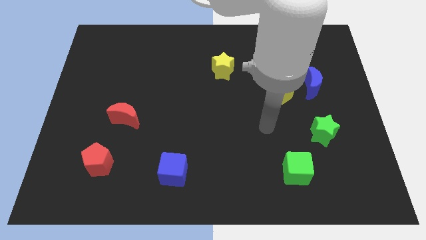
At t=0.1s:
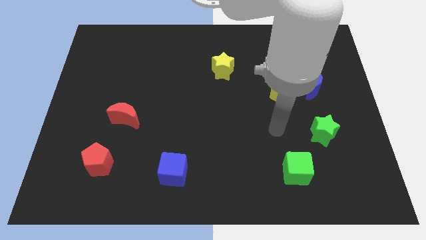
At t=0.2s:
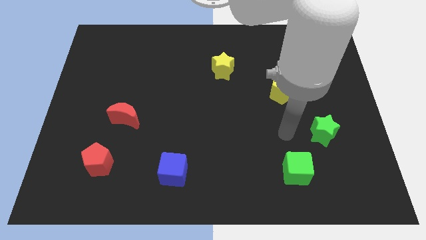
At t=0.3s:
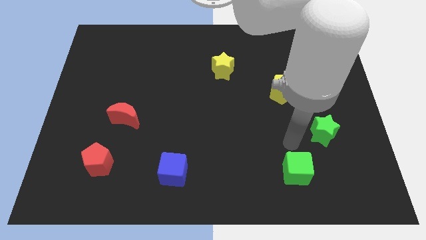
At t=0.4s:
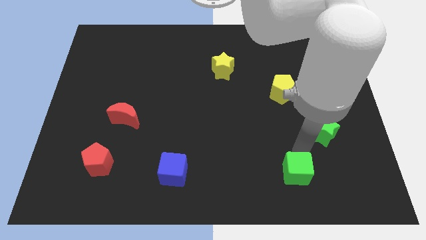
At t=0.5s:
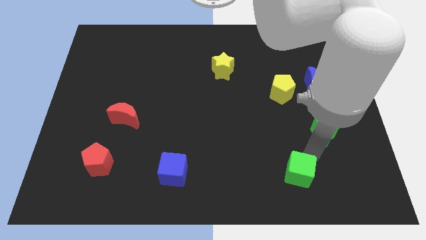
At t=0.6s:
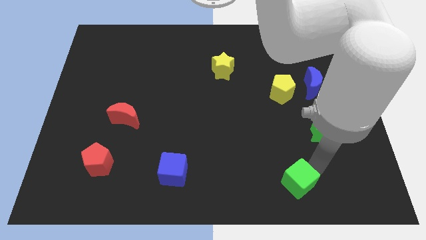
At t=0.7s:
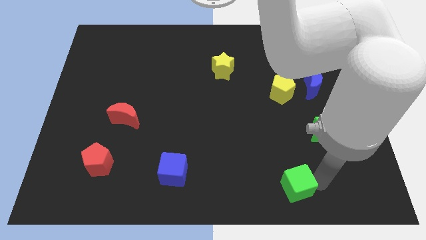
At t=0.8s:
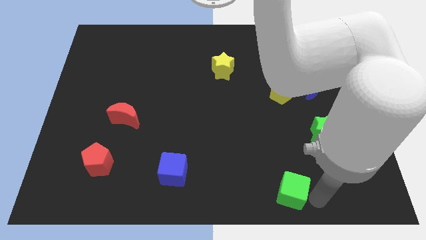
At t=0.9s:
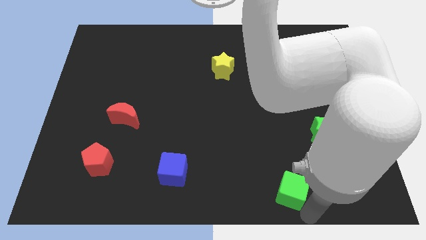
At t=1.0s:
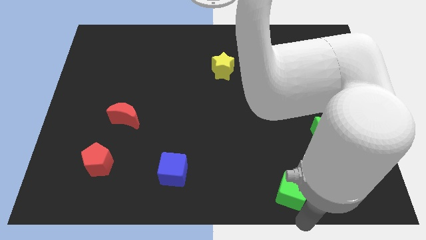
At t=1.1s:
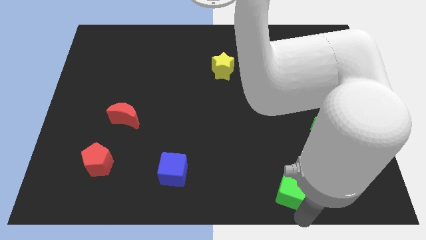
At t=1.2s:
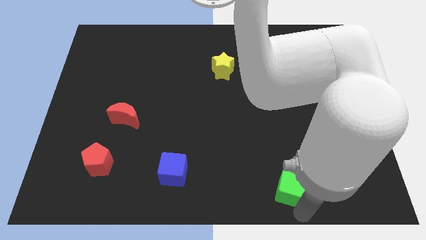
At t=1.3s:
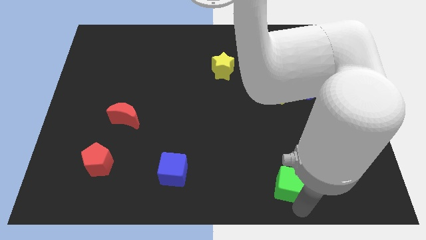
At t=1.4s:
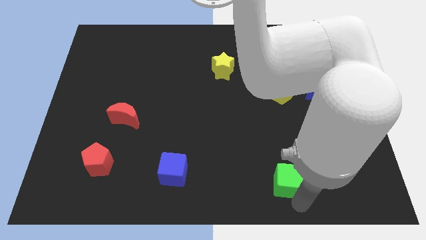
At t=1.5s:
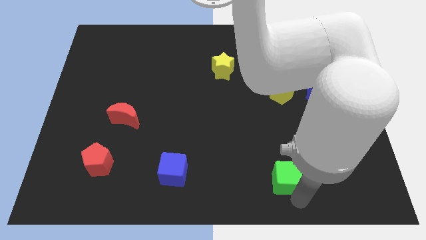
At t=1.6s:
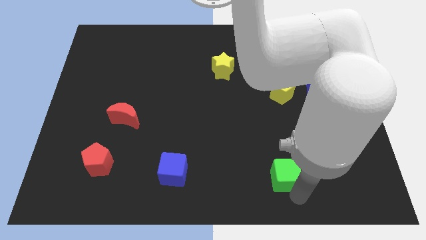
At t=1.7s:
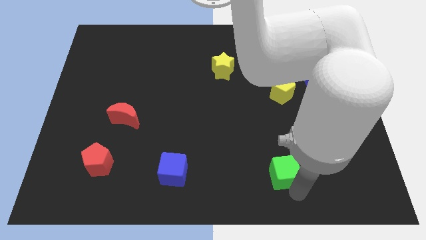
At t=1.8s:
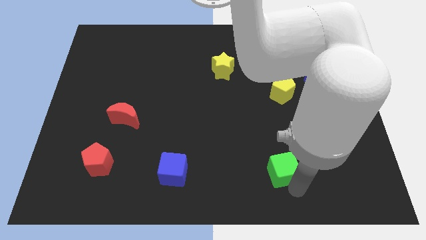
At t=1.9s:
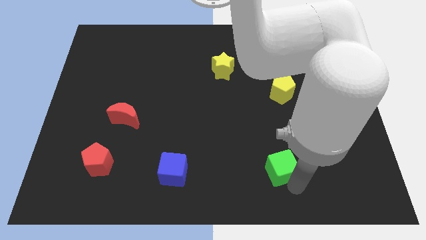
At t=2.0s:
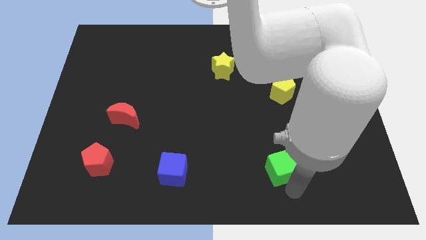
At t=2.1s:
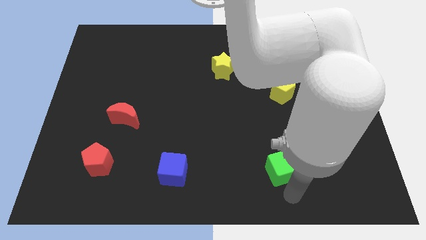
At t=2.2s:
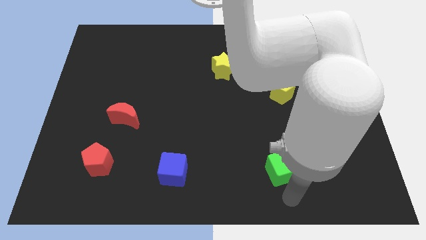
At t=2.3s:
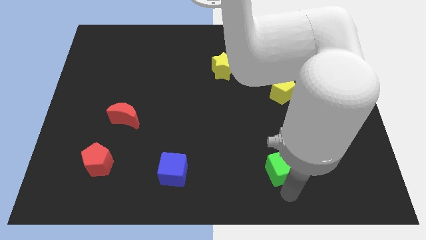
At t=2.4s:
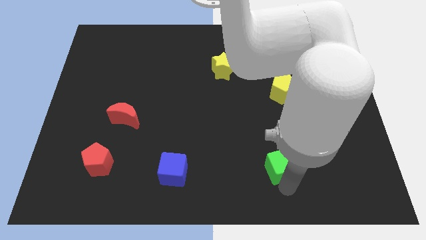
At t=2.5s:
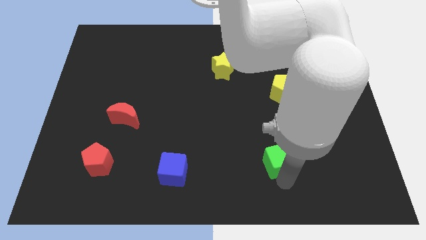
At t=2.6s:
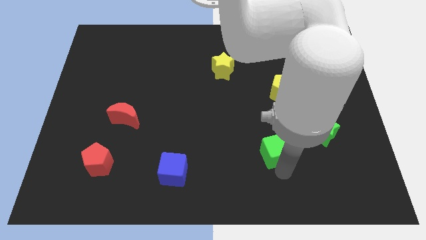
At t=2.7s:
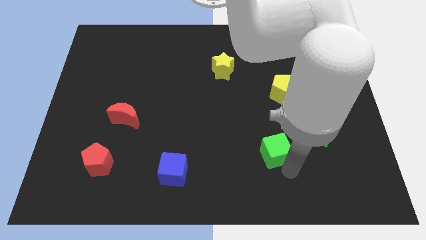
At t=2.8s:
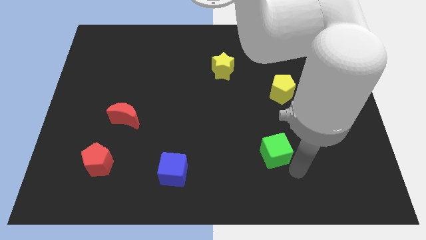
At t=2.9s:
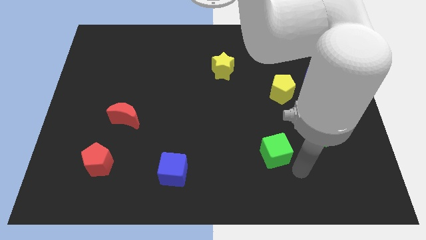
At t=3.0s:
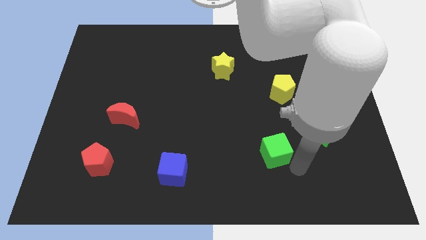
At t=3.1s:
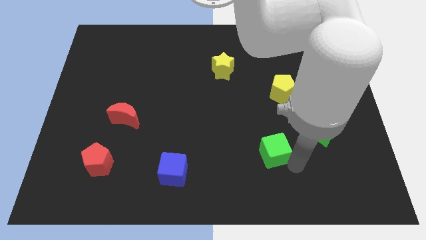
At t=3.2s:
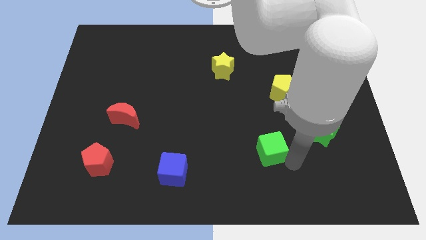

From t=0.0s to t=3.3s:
slightly slide the green cube up and then to the left

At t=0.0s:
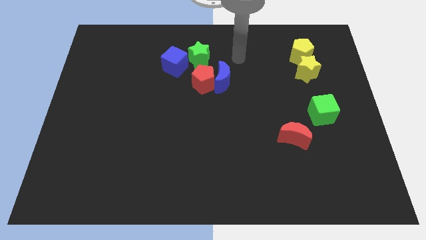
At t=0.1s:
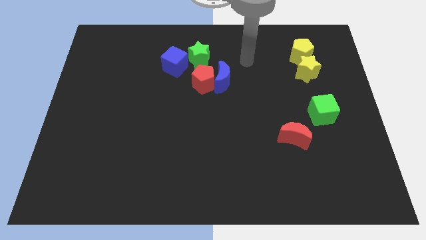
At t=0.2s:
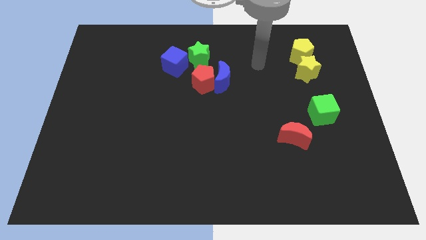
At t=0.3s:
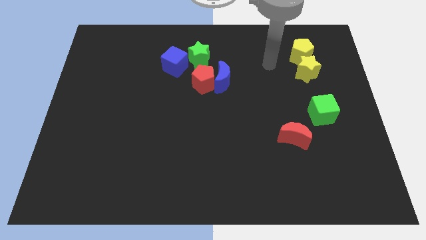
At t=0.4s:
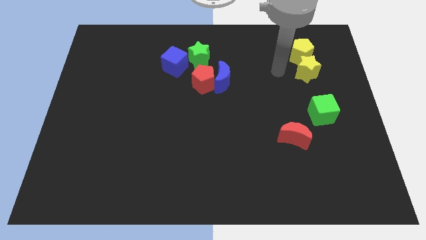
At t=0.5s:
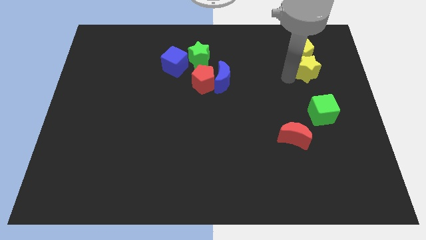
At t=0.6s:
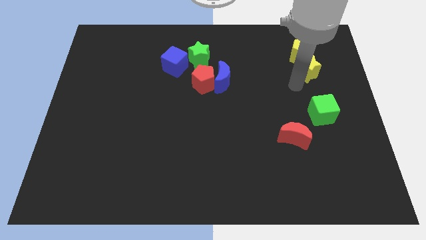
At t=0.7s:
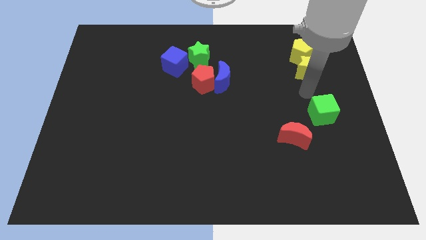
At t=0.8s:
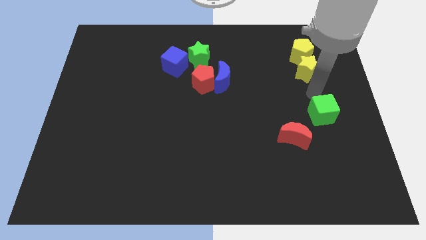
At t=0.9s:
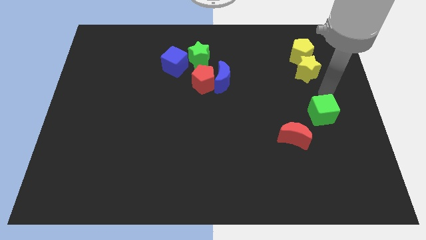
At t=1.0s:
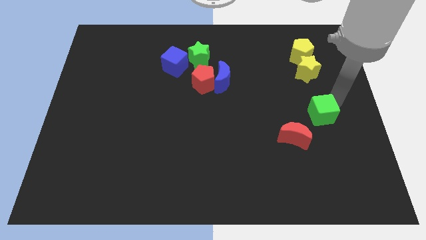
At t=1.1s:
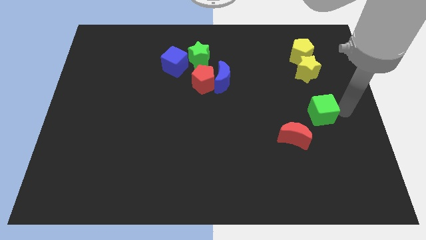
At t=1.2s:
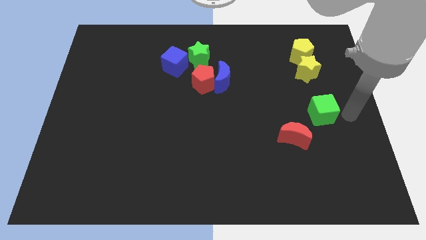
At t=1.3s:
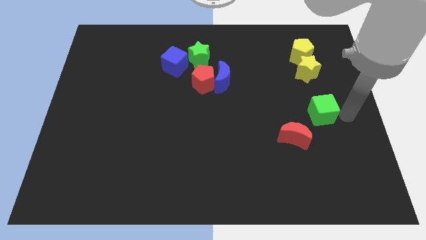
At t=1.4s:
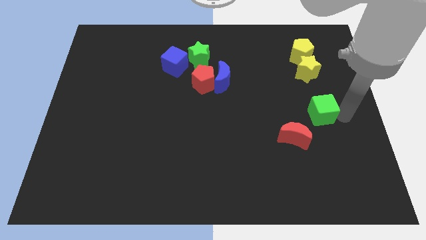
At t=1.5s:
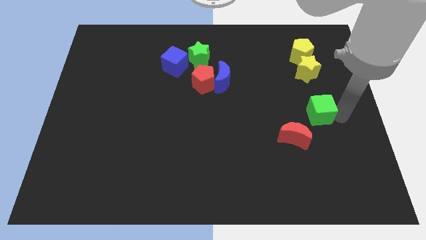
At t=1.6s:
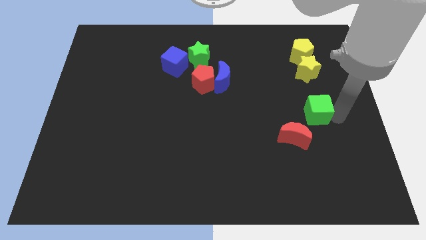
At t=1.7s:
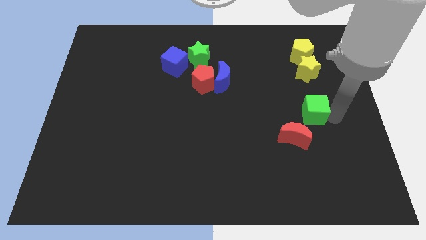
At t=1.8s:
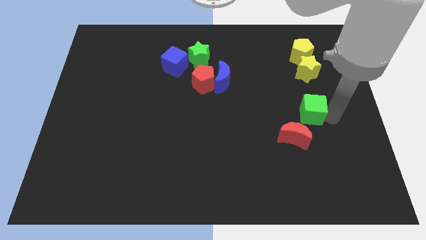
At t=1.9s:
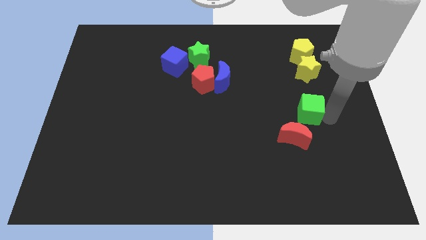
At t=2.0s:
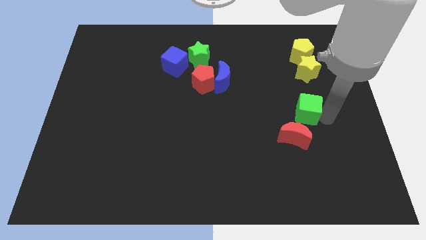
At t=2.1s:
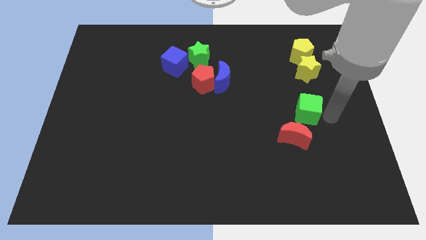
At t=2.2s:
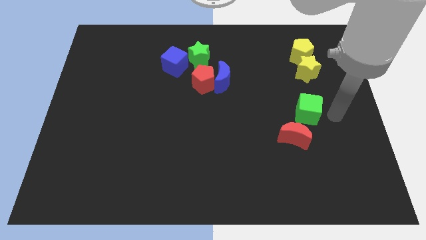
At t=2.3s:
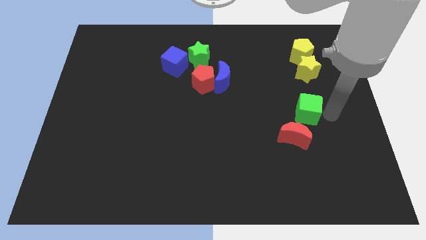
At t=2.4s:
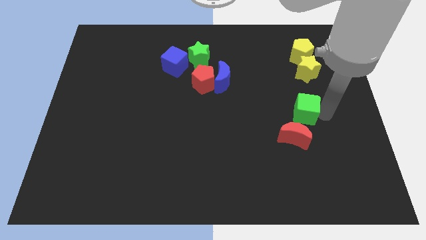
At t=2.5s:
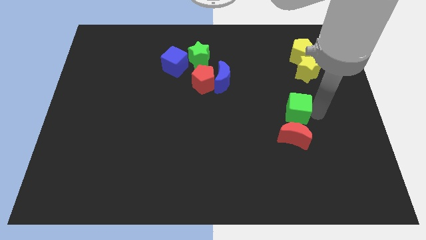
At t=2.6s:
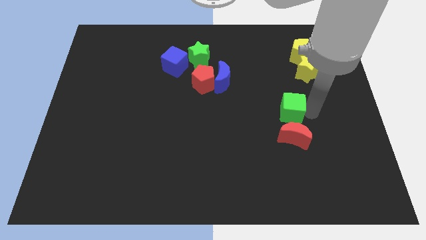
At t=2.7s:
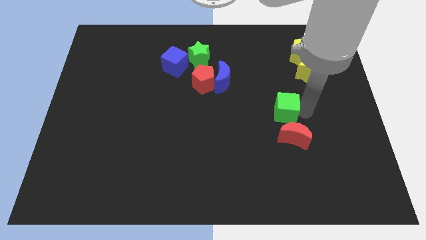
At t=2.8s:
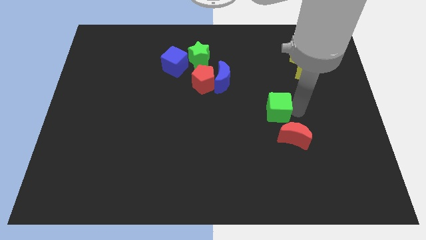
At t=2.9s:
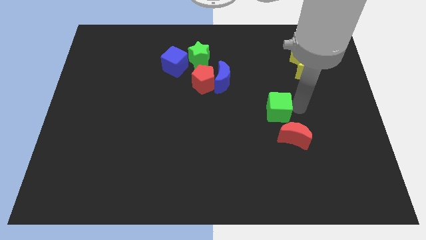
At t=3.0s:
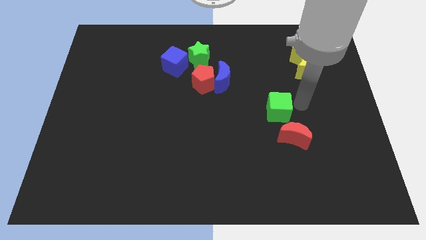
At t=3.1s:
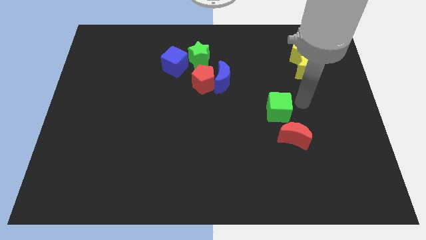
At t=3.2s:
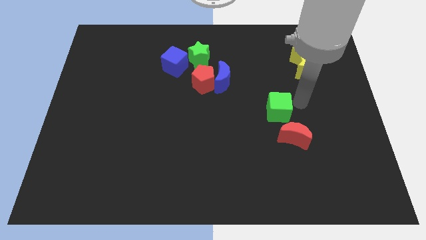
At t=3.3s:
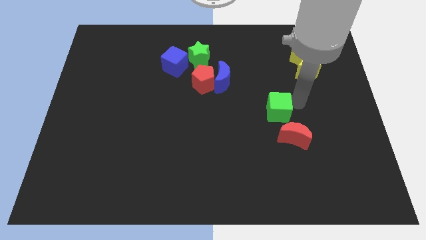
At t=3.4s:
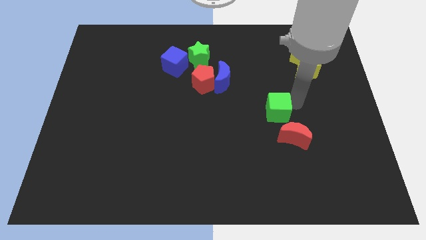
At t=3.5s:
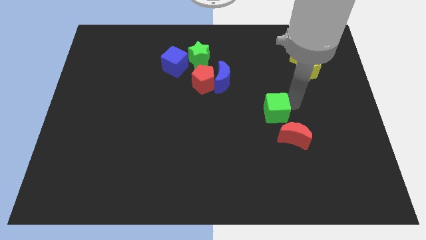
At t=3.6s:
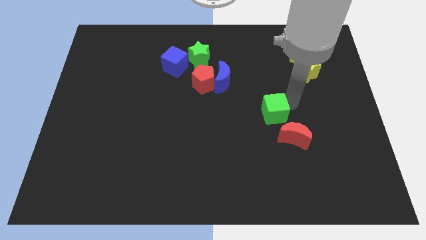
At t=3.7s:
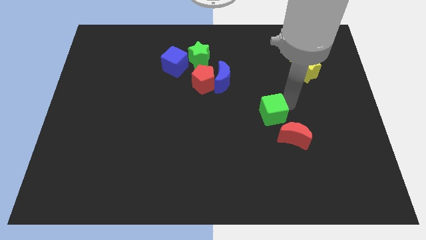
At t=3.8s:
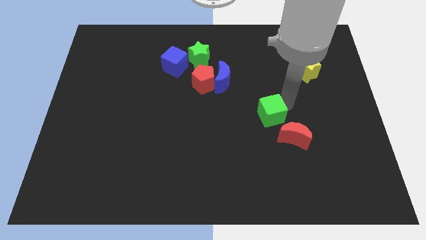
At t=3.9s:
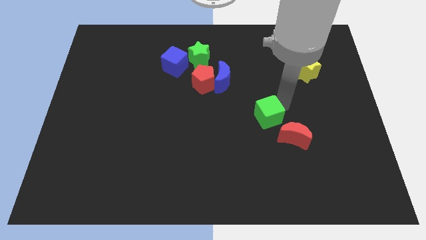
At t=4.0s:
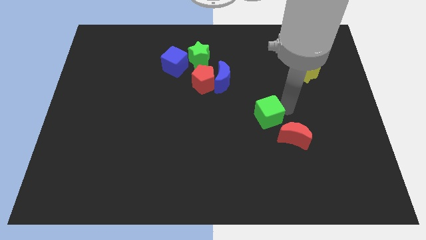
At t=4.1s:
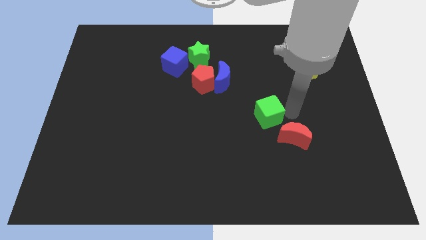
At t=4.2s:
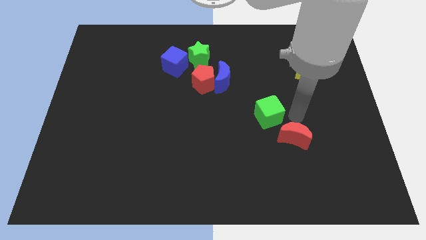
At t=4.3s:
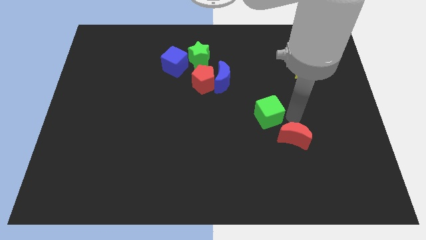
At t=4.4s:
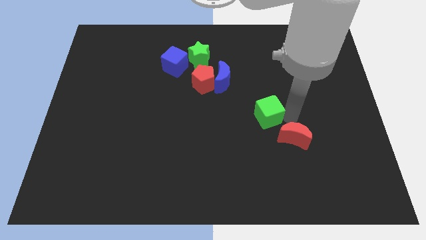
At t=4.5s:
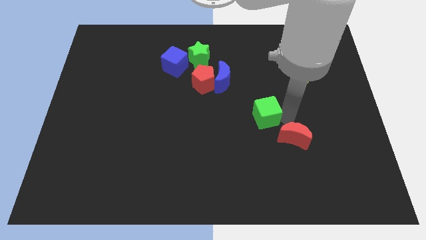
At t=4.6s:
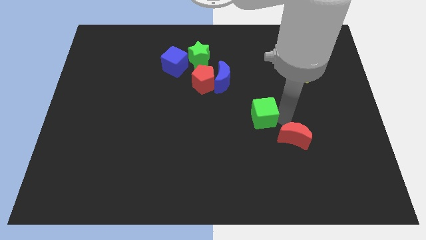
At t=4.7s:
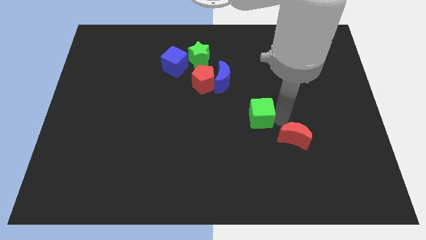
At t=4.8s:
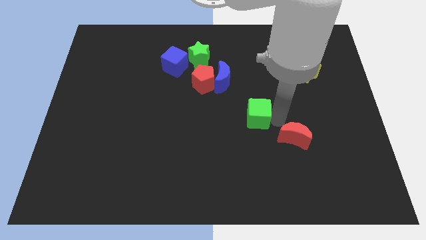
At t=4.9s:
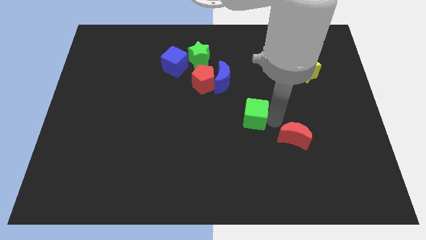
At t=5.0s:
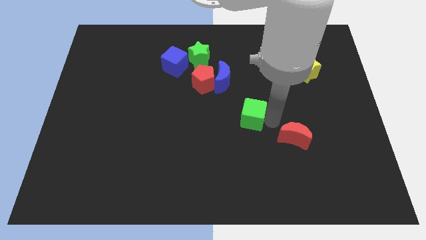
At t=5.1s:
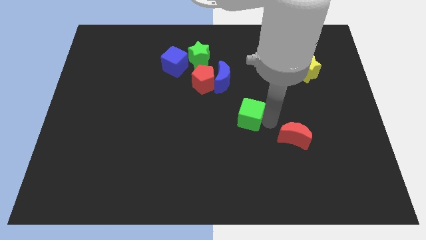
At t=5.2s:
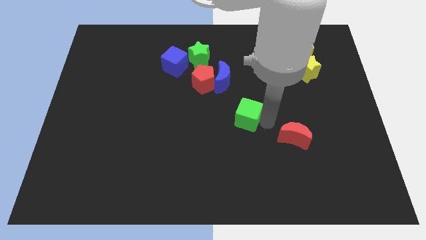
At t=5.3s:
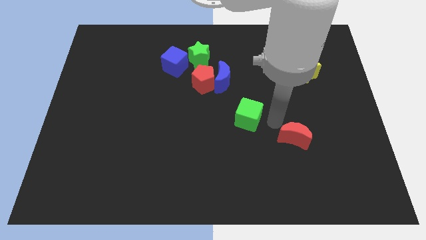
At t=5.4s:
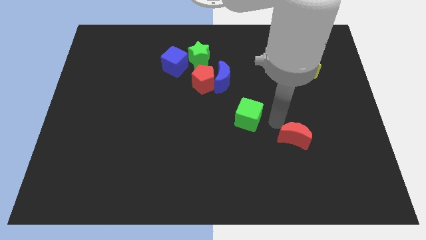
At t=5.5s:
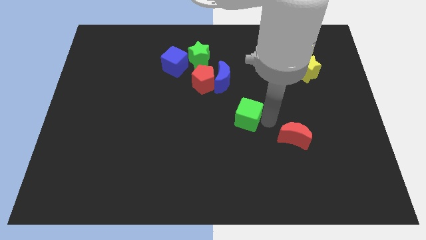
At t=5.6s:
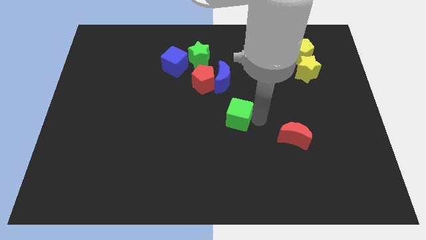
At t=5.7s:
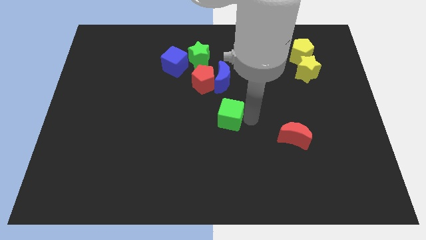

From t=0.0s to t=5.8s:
slide the green cube left
